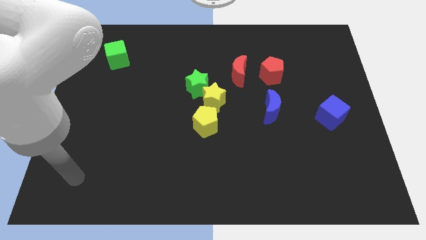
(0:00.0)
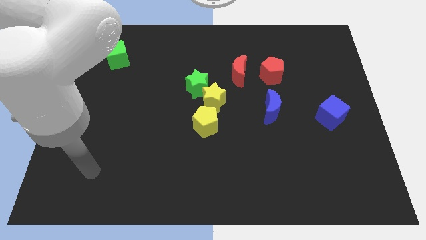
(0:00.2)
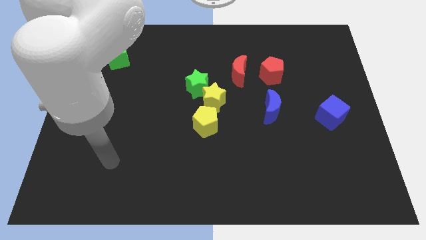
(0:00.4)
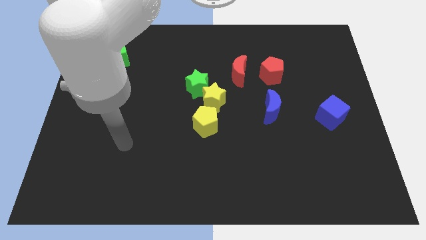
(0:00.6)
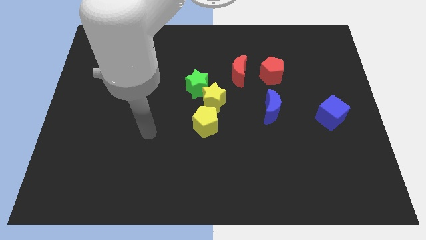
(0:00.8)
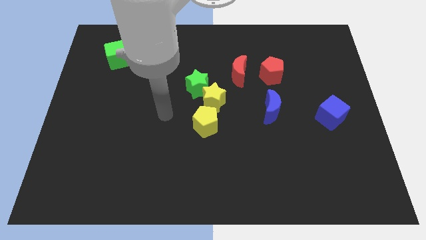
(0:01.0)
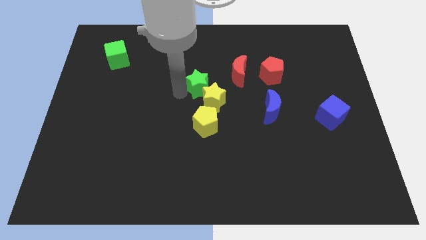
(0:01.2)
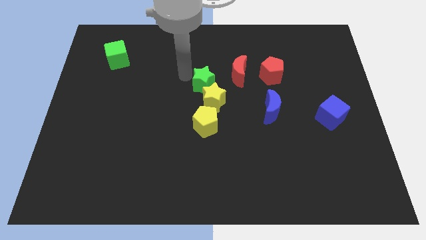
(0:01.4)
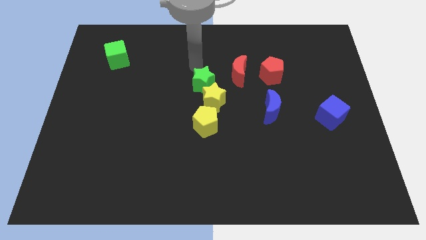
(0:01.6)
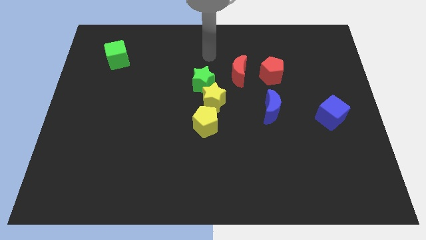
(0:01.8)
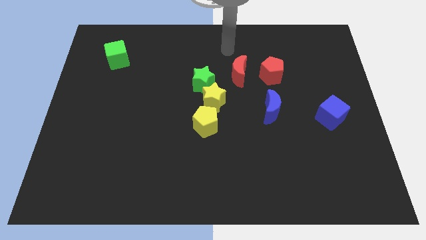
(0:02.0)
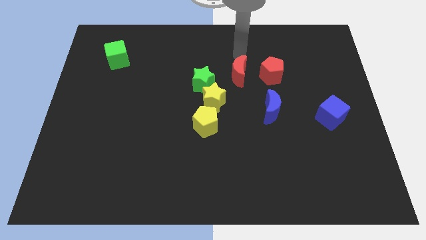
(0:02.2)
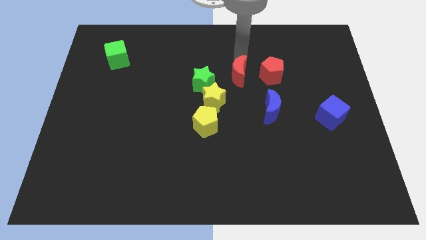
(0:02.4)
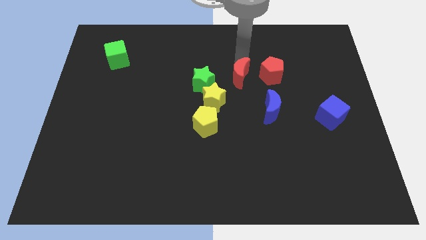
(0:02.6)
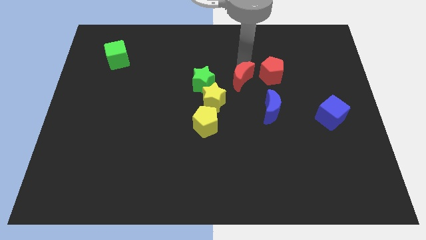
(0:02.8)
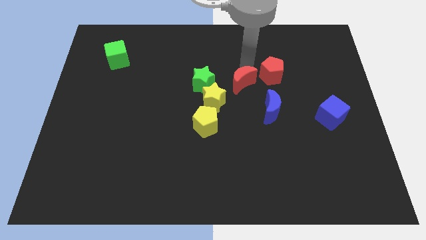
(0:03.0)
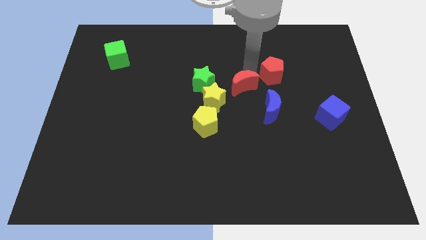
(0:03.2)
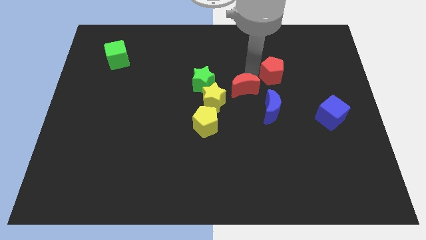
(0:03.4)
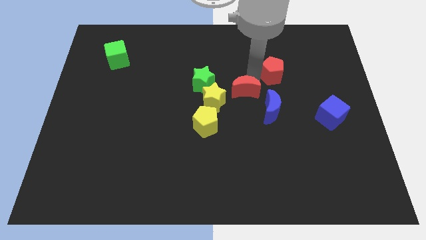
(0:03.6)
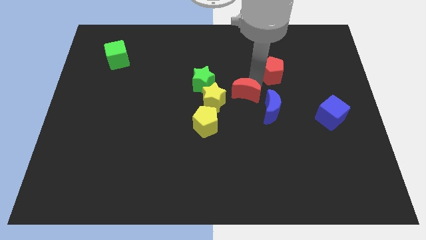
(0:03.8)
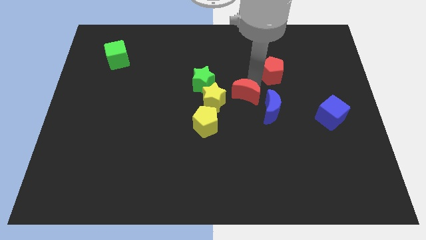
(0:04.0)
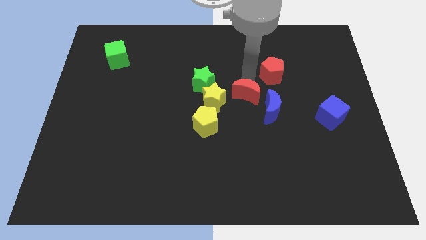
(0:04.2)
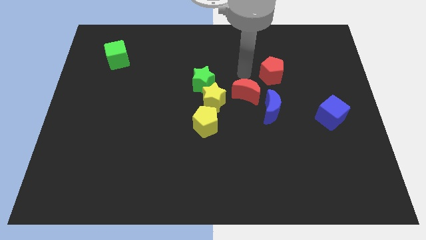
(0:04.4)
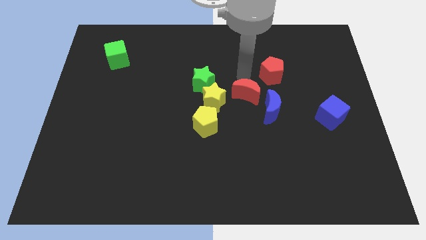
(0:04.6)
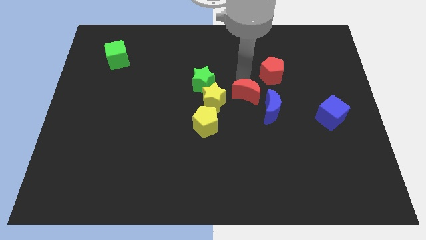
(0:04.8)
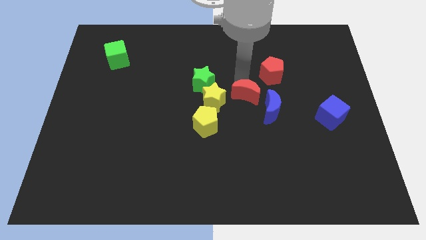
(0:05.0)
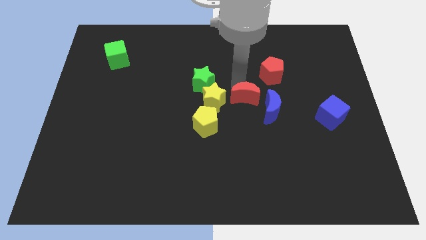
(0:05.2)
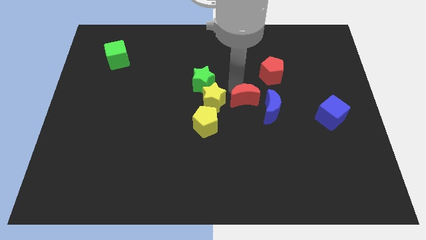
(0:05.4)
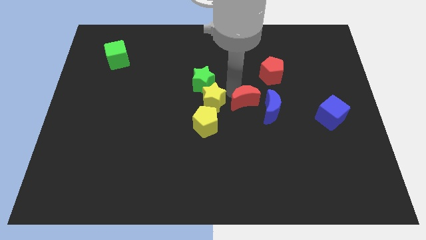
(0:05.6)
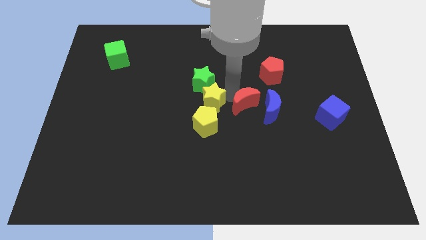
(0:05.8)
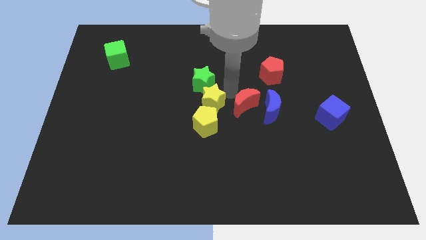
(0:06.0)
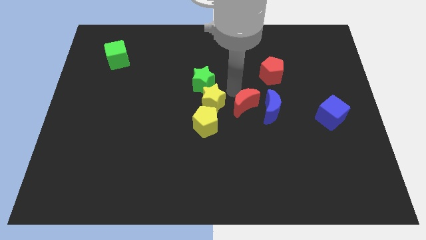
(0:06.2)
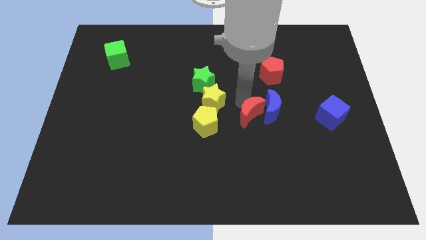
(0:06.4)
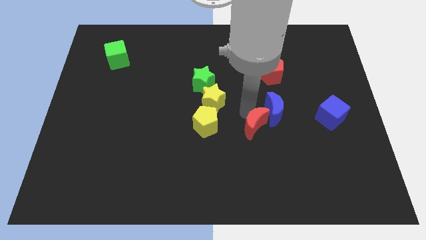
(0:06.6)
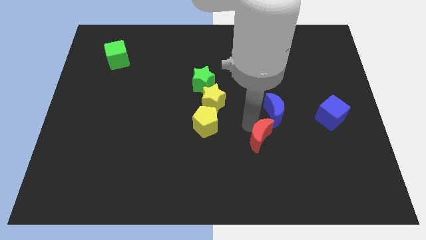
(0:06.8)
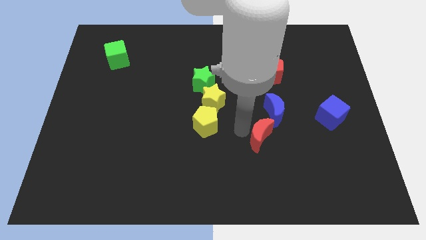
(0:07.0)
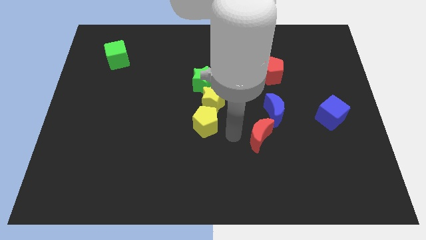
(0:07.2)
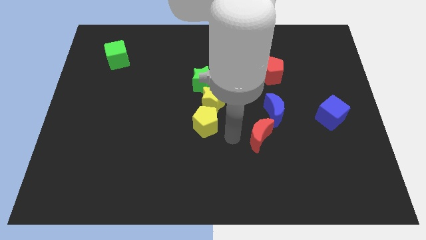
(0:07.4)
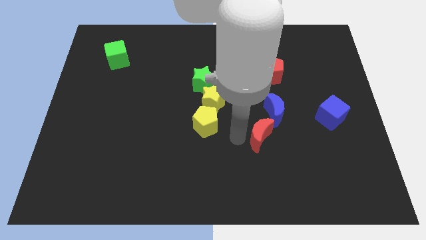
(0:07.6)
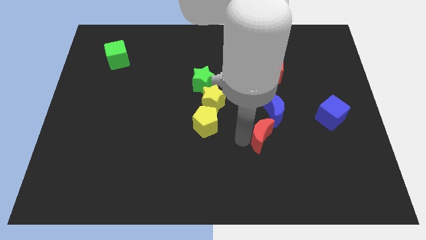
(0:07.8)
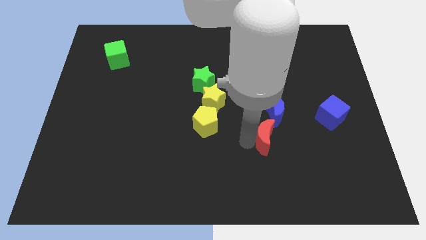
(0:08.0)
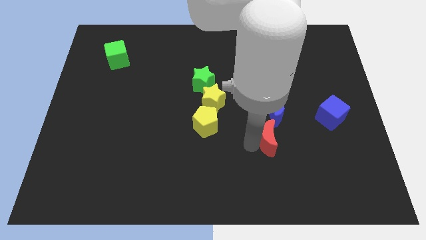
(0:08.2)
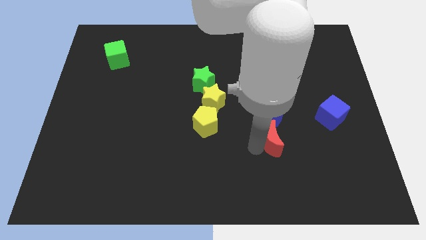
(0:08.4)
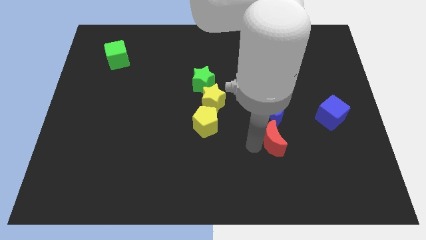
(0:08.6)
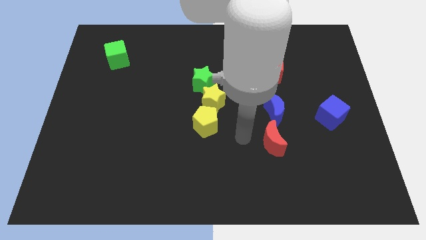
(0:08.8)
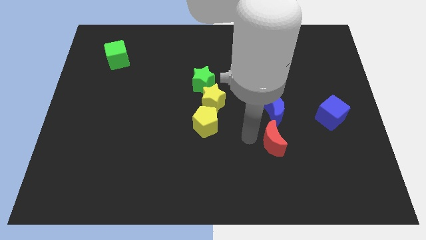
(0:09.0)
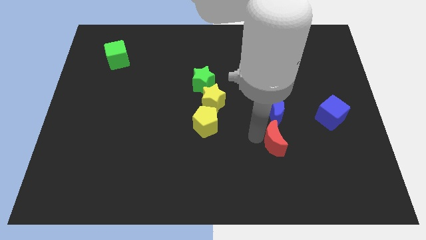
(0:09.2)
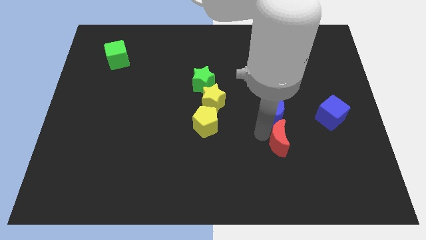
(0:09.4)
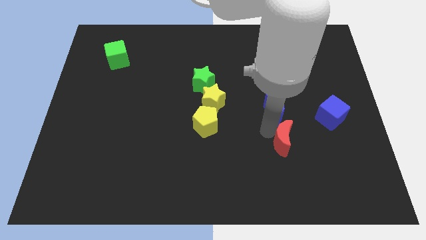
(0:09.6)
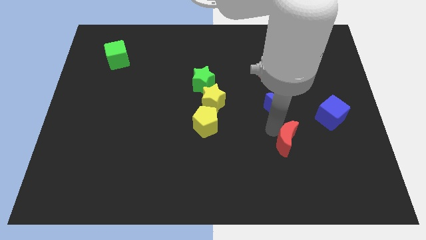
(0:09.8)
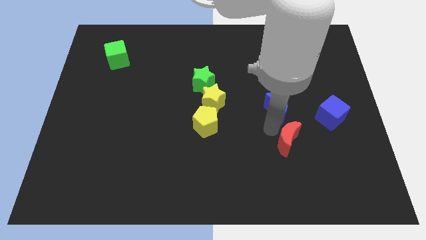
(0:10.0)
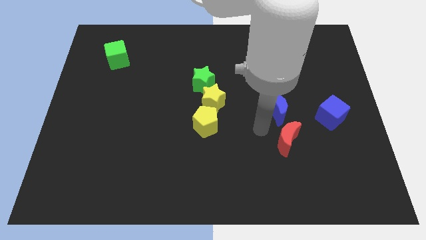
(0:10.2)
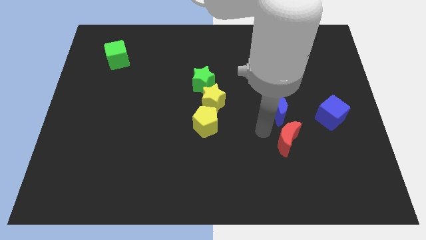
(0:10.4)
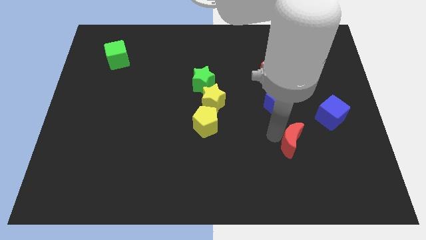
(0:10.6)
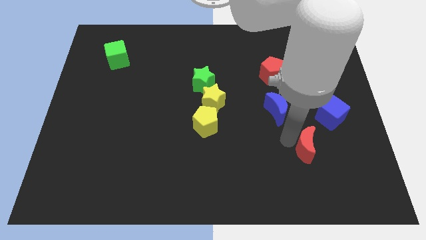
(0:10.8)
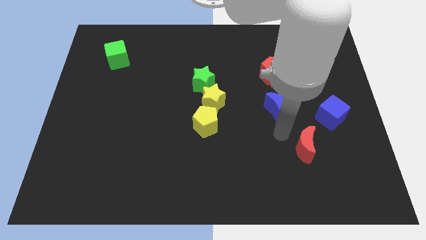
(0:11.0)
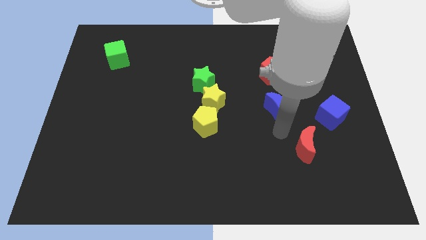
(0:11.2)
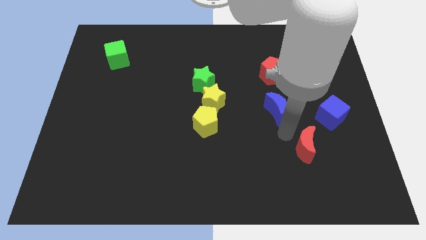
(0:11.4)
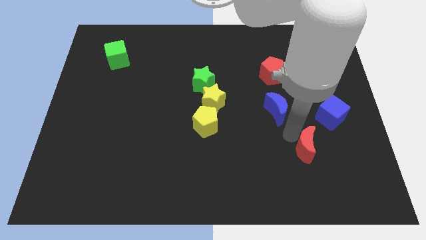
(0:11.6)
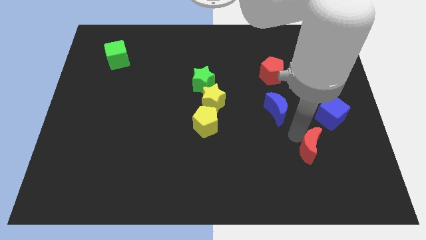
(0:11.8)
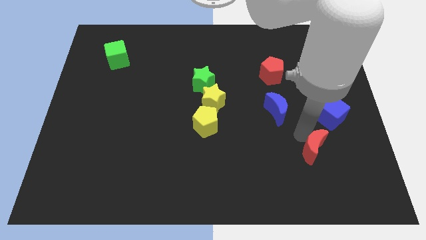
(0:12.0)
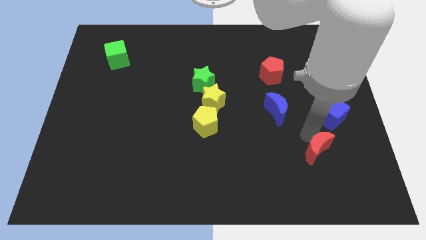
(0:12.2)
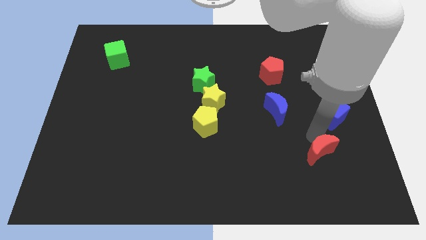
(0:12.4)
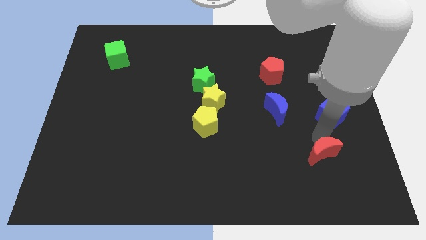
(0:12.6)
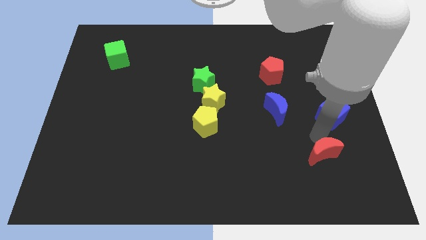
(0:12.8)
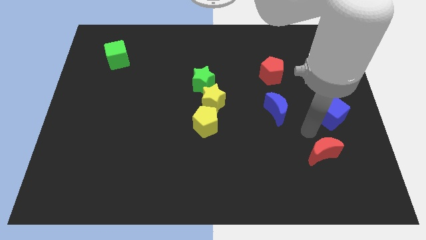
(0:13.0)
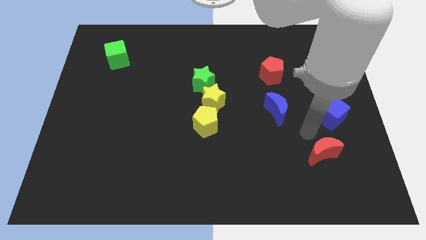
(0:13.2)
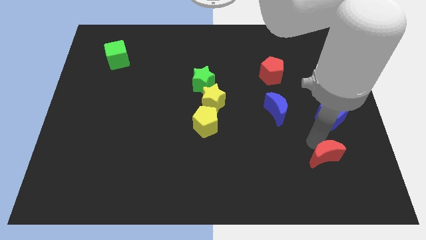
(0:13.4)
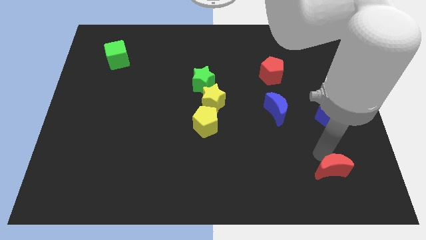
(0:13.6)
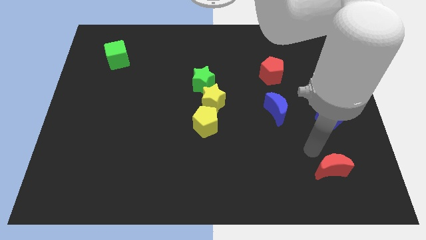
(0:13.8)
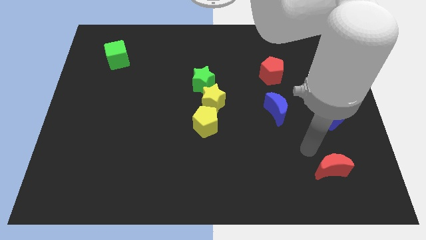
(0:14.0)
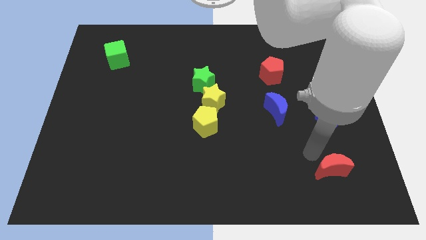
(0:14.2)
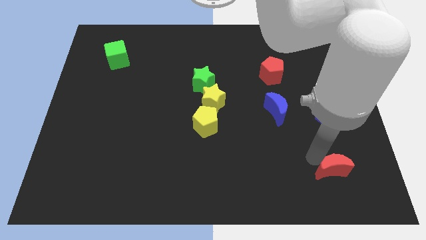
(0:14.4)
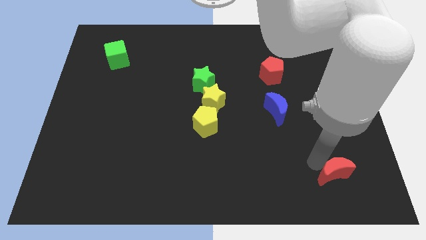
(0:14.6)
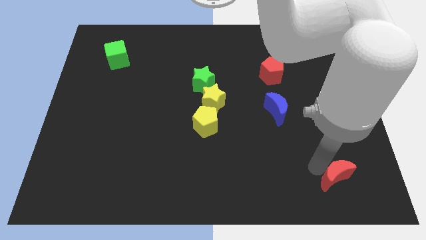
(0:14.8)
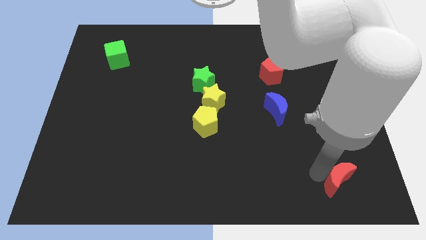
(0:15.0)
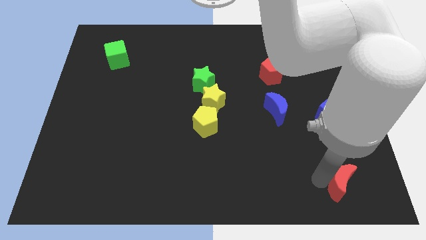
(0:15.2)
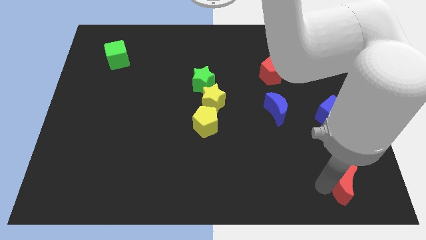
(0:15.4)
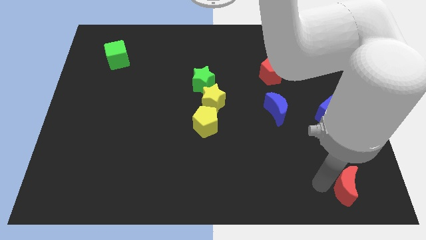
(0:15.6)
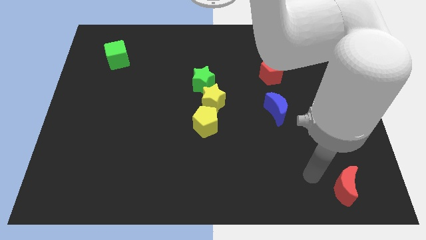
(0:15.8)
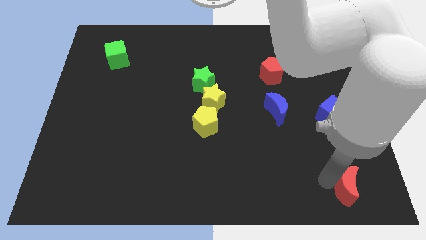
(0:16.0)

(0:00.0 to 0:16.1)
move the red moon to the bottom right
